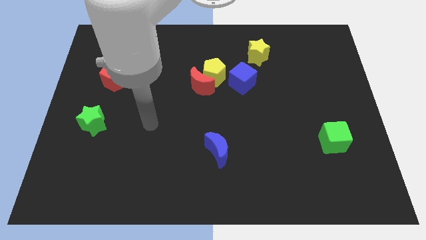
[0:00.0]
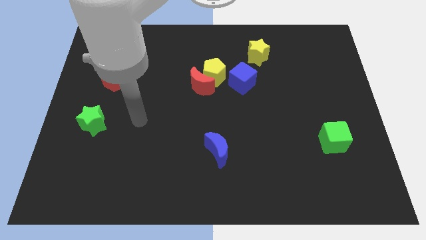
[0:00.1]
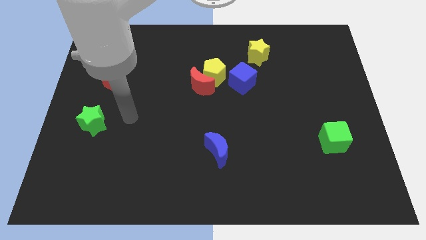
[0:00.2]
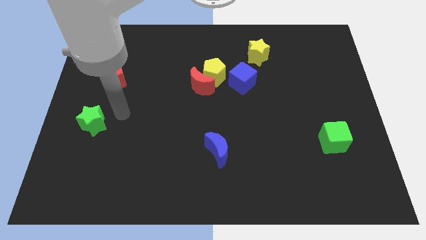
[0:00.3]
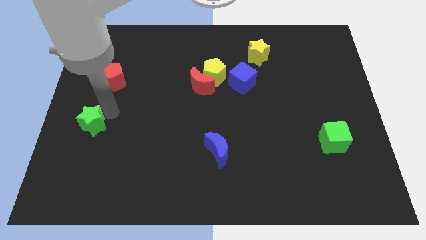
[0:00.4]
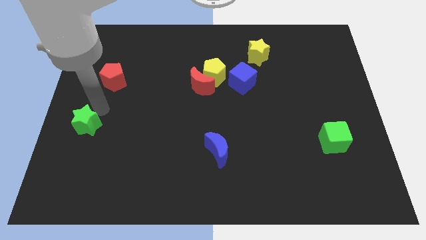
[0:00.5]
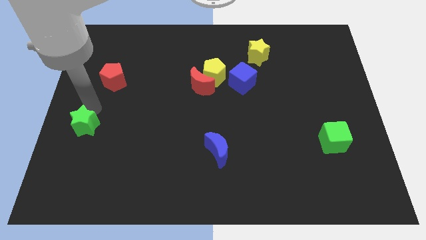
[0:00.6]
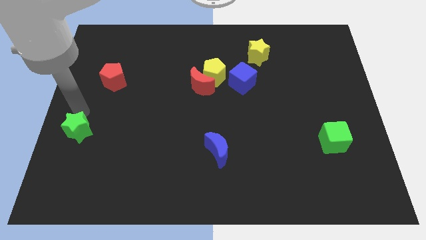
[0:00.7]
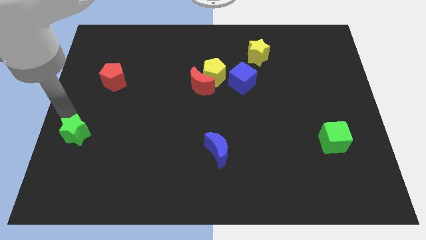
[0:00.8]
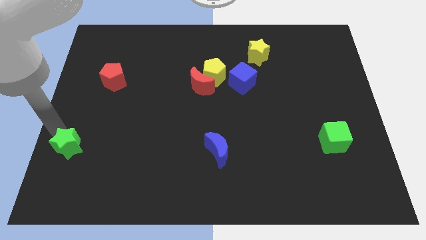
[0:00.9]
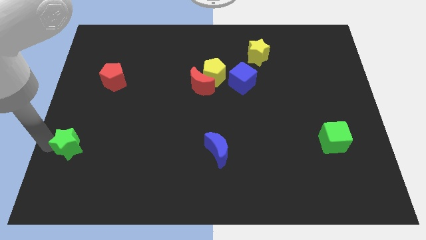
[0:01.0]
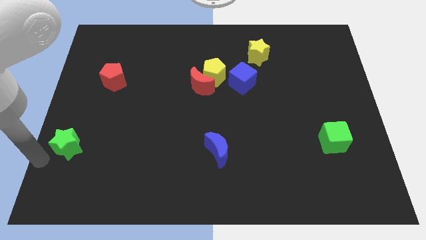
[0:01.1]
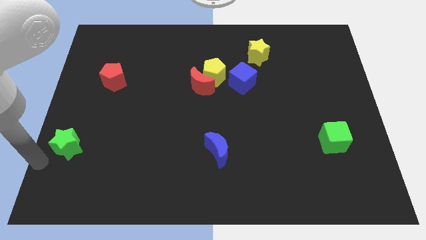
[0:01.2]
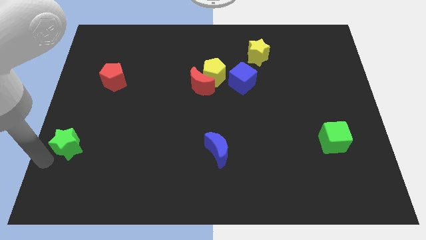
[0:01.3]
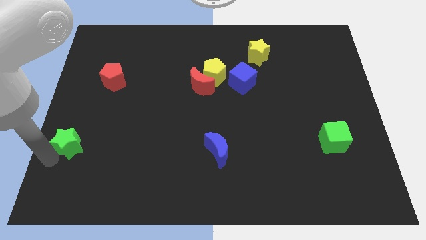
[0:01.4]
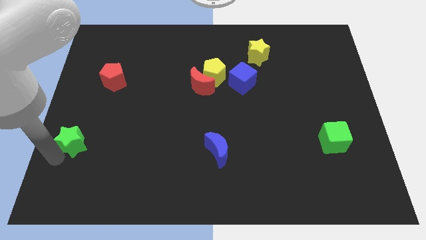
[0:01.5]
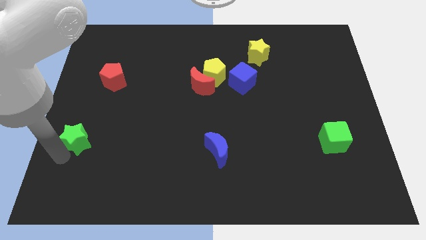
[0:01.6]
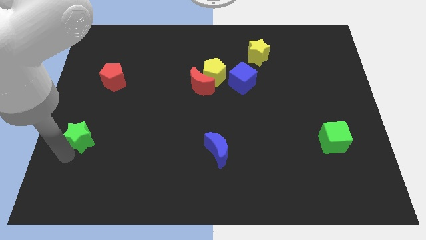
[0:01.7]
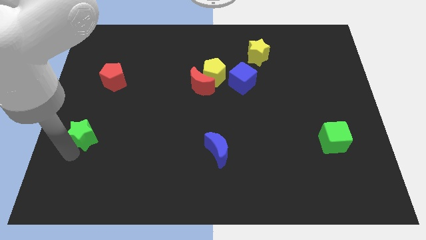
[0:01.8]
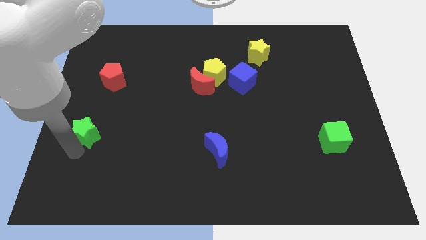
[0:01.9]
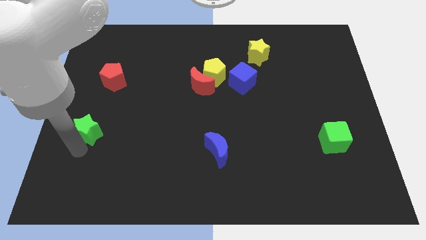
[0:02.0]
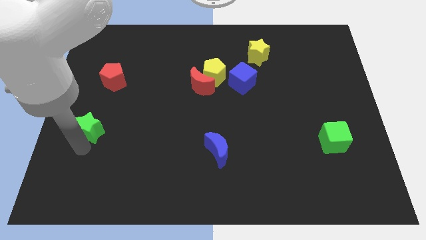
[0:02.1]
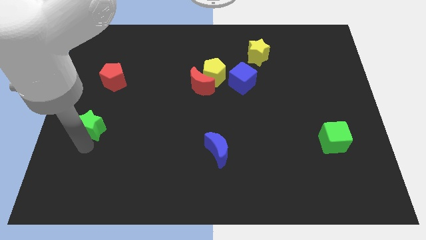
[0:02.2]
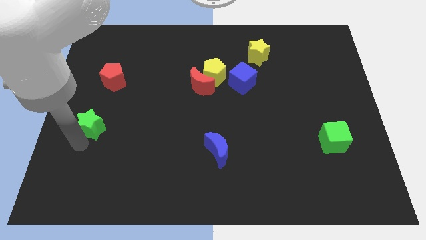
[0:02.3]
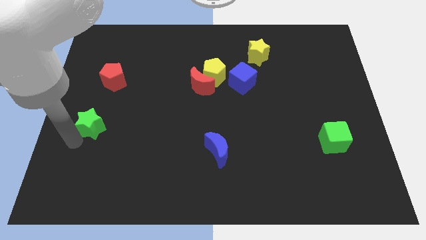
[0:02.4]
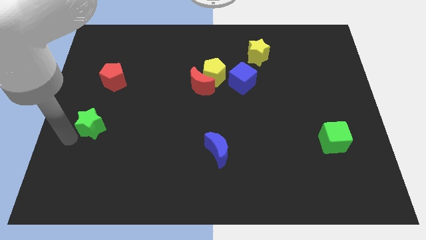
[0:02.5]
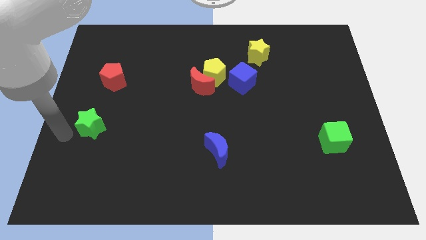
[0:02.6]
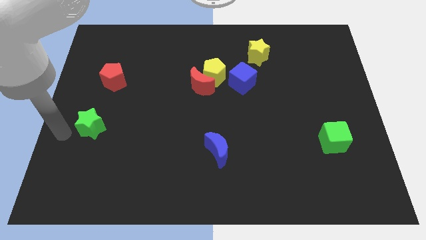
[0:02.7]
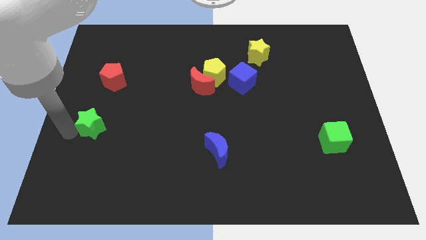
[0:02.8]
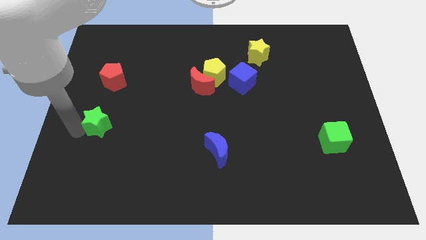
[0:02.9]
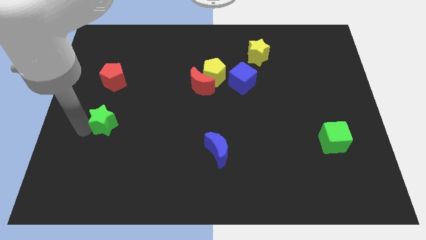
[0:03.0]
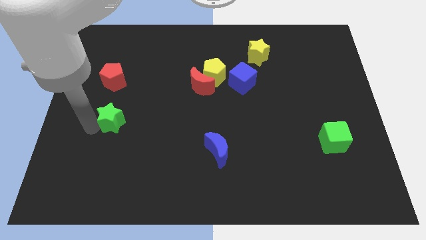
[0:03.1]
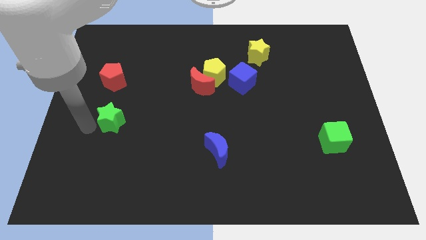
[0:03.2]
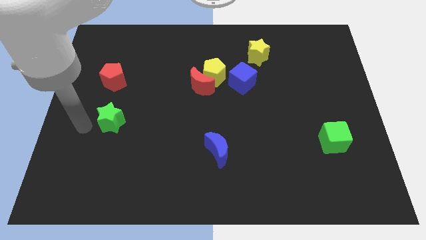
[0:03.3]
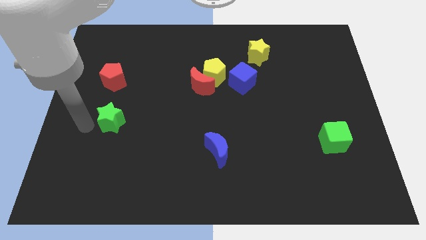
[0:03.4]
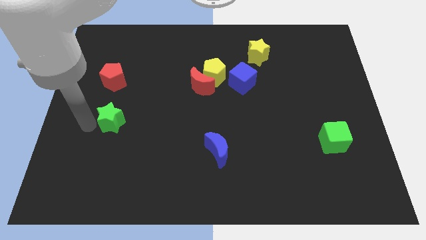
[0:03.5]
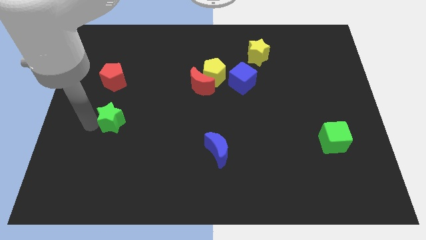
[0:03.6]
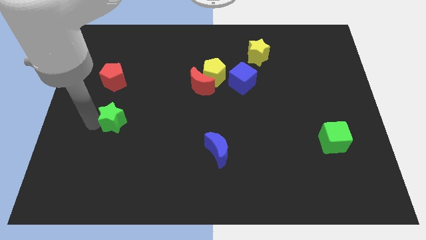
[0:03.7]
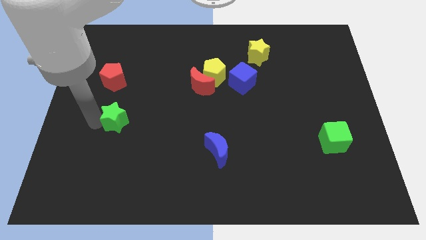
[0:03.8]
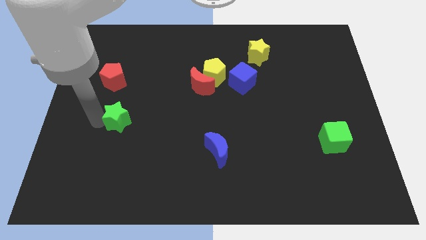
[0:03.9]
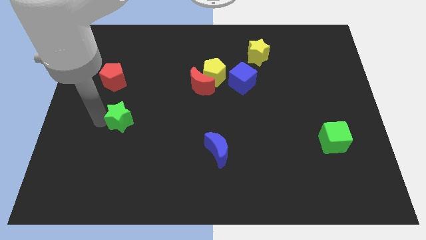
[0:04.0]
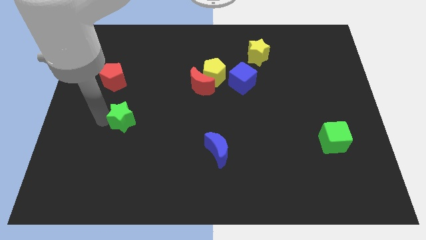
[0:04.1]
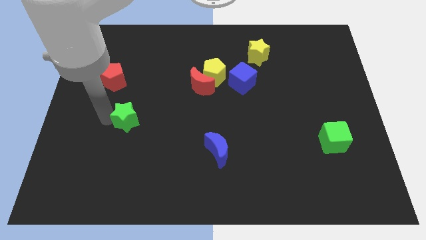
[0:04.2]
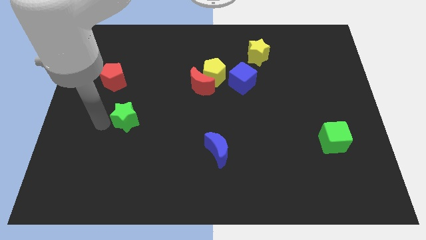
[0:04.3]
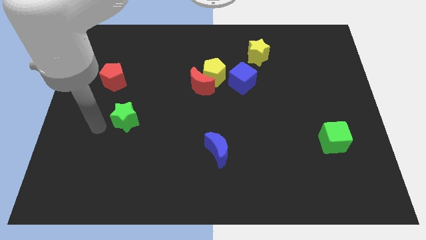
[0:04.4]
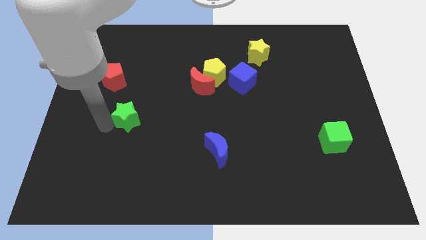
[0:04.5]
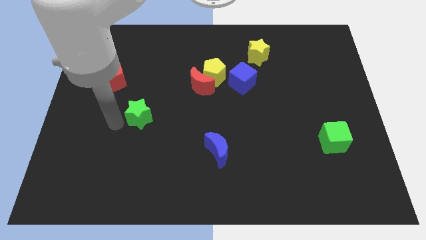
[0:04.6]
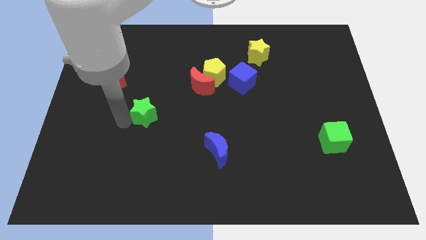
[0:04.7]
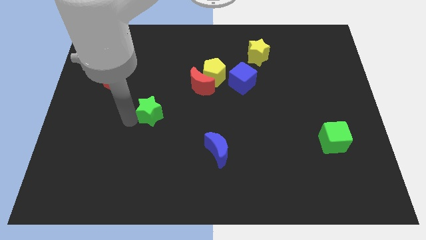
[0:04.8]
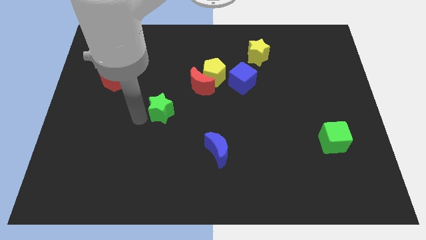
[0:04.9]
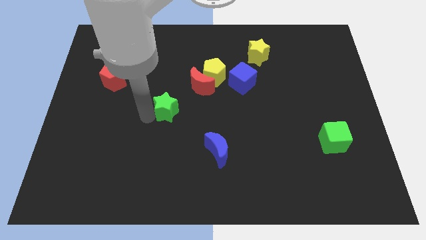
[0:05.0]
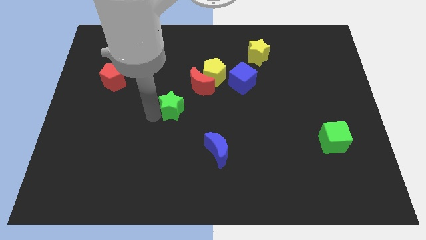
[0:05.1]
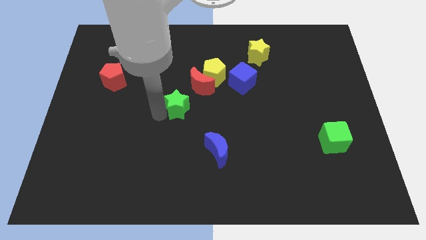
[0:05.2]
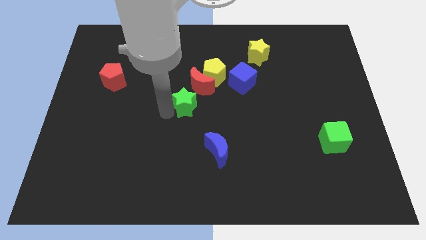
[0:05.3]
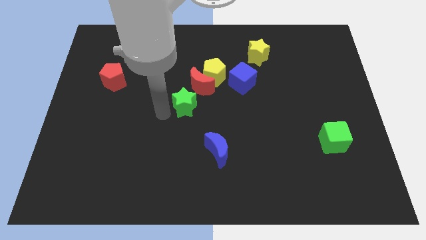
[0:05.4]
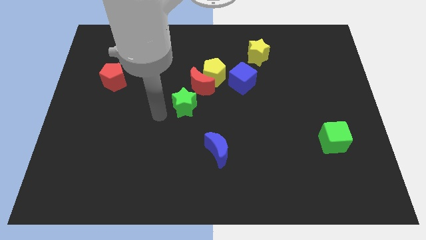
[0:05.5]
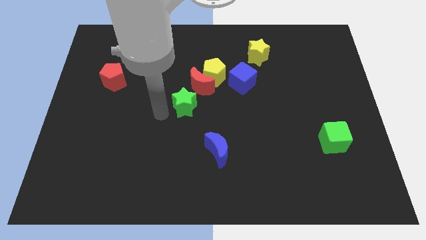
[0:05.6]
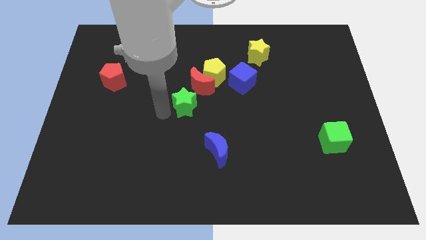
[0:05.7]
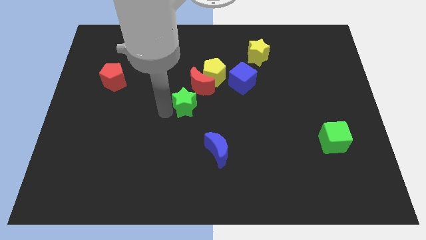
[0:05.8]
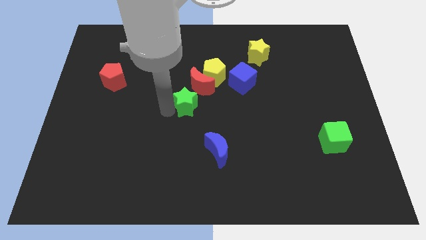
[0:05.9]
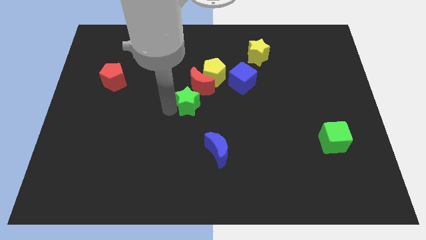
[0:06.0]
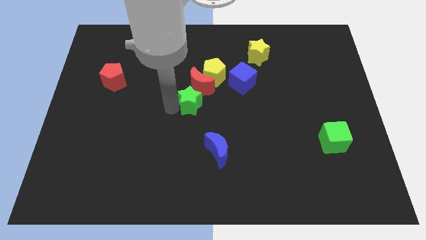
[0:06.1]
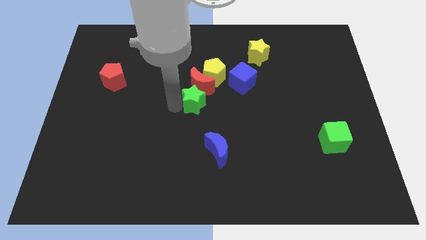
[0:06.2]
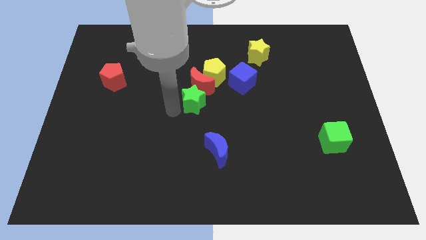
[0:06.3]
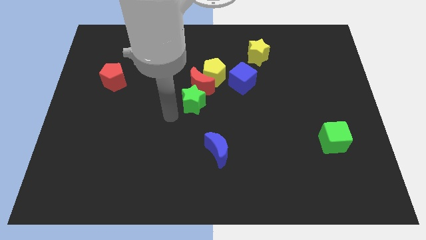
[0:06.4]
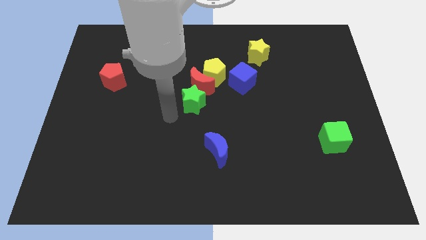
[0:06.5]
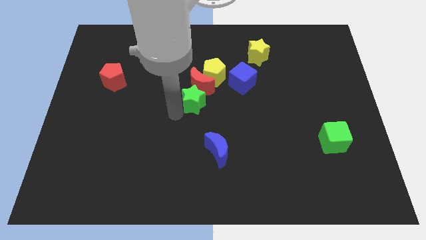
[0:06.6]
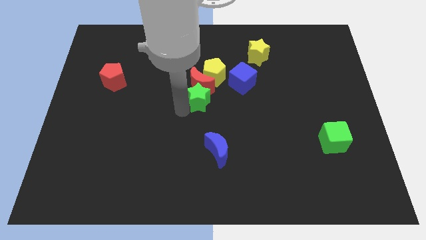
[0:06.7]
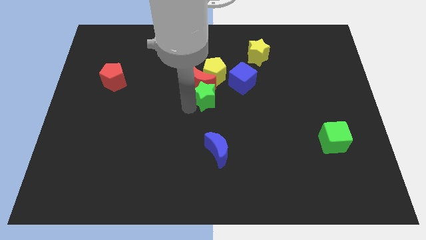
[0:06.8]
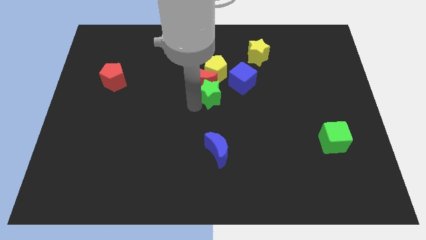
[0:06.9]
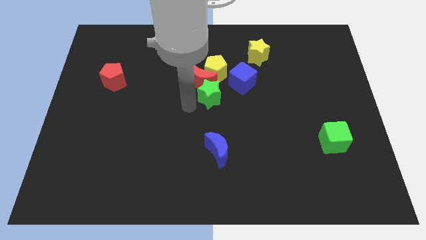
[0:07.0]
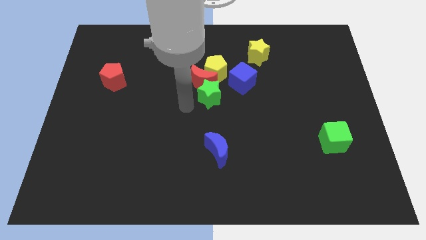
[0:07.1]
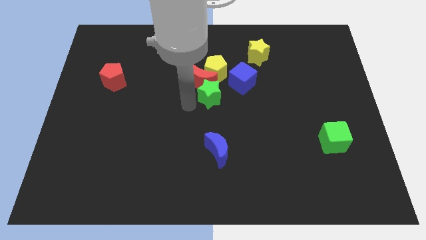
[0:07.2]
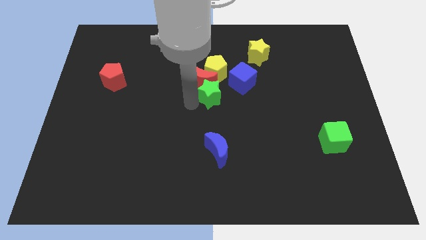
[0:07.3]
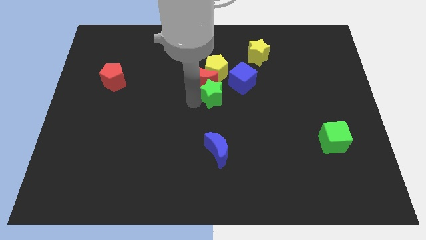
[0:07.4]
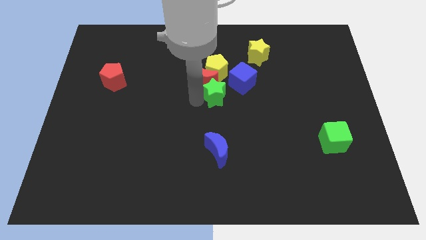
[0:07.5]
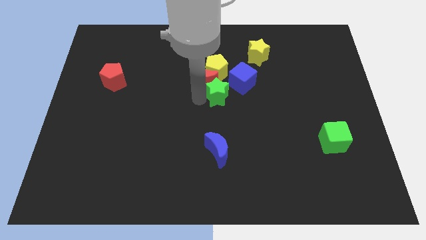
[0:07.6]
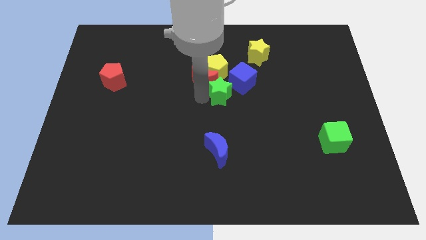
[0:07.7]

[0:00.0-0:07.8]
slide the green star to the bottom right of the yellow pentagon
